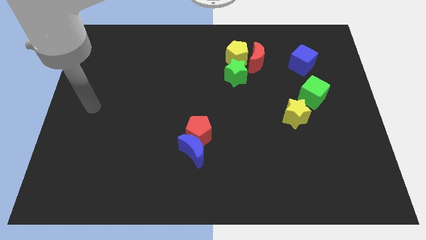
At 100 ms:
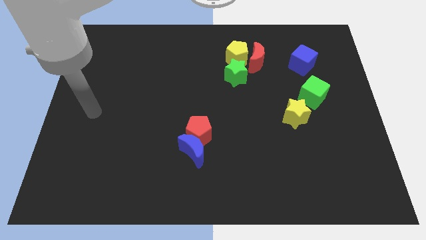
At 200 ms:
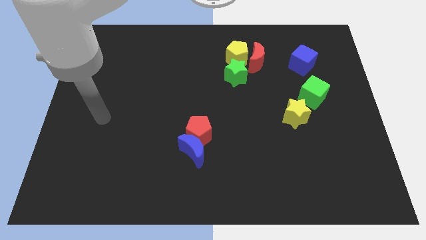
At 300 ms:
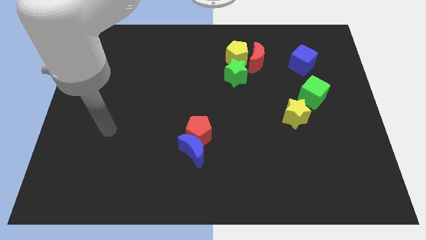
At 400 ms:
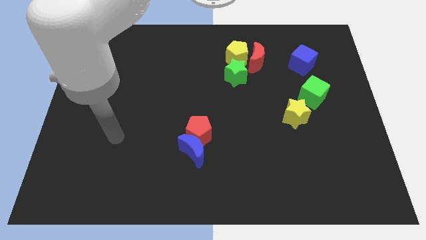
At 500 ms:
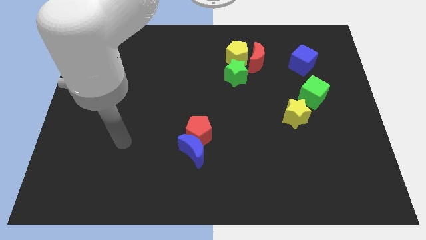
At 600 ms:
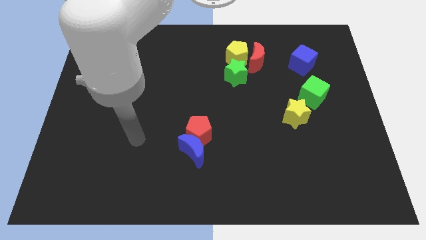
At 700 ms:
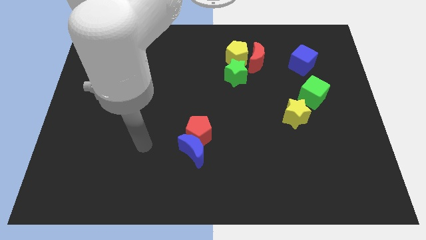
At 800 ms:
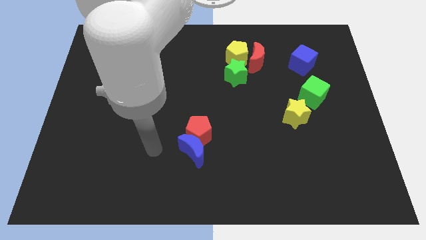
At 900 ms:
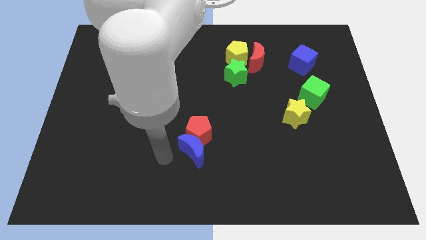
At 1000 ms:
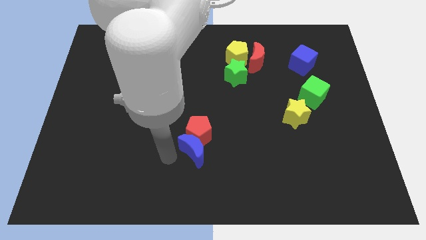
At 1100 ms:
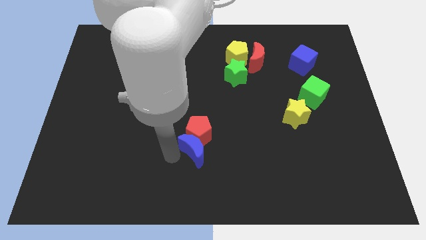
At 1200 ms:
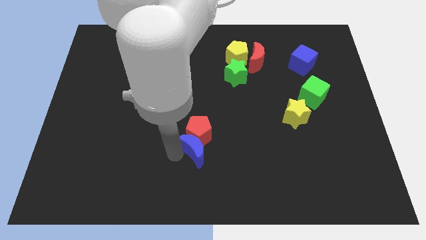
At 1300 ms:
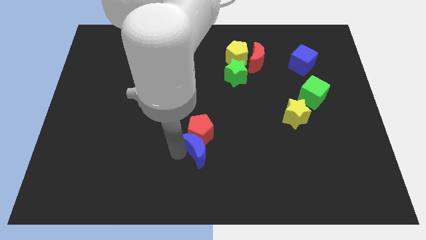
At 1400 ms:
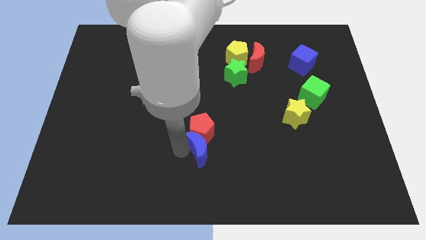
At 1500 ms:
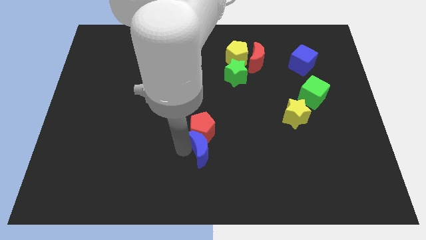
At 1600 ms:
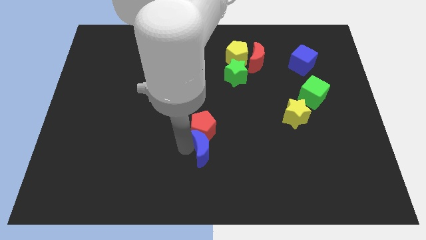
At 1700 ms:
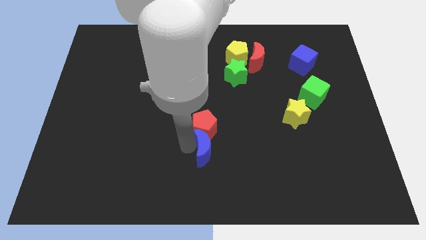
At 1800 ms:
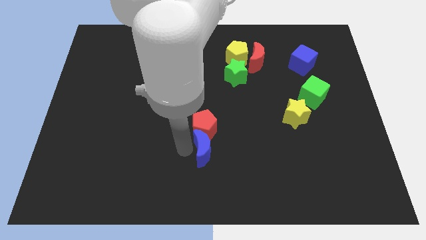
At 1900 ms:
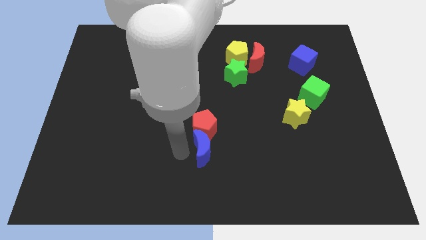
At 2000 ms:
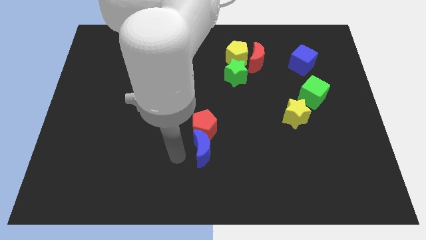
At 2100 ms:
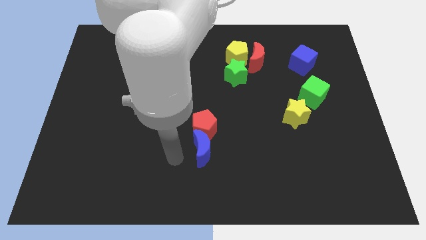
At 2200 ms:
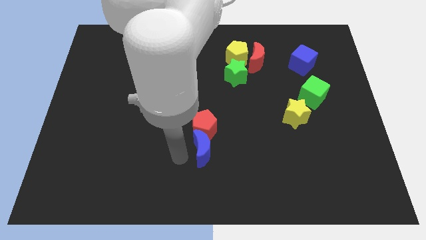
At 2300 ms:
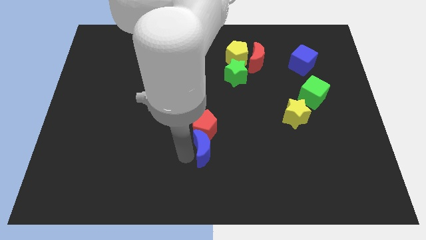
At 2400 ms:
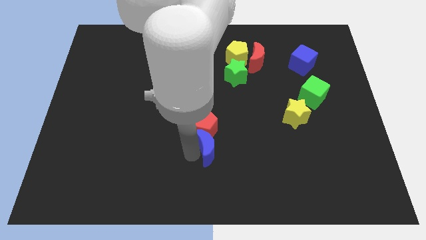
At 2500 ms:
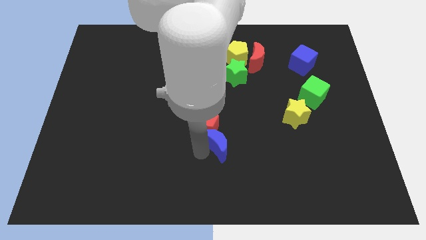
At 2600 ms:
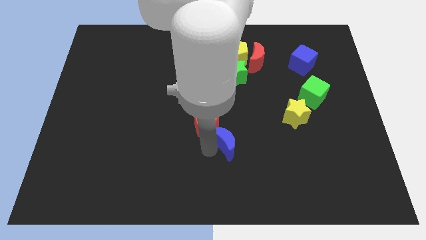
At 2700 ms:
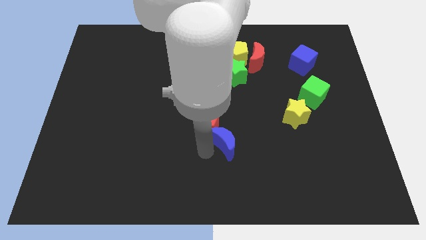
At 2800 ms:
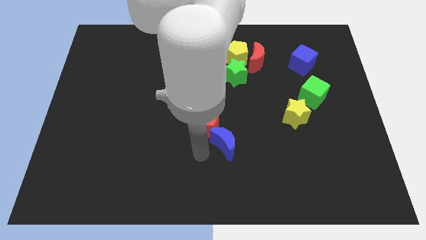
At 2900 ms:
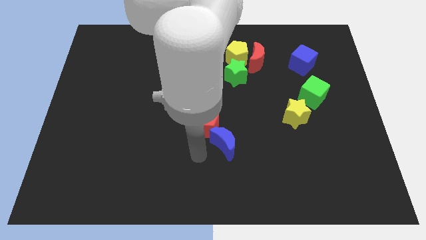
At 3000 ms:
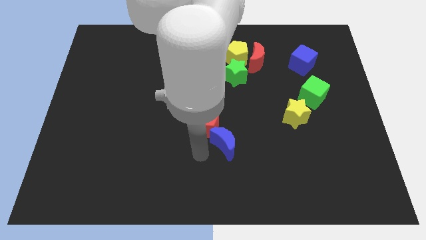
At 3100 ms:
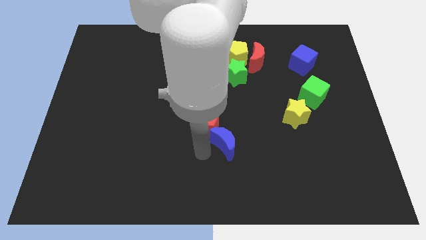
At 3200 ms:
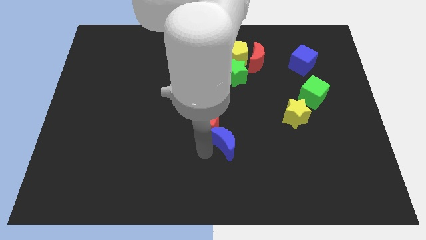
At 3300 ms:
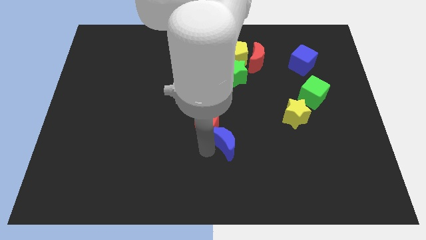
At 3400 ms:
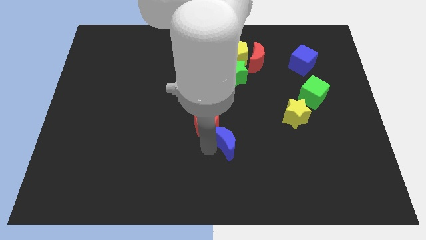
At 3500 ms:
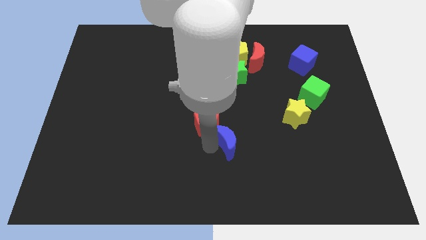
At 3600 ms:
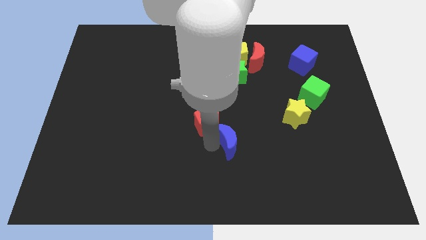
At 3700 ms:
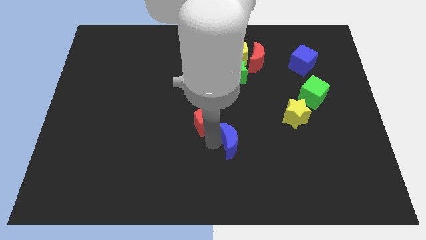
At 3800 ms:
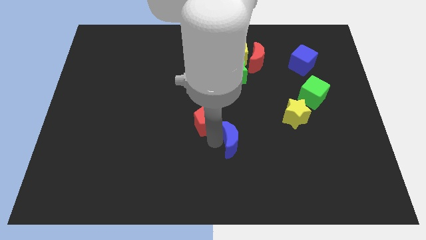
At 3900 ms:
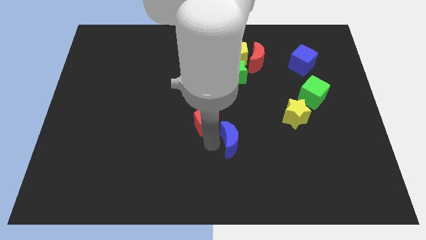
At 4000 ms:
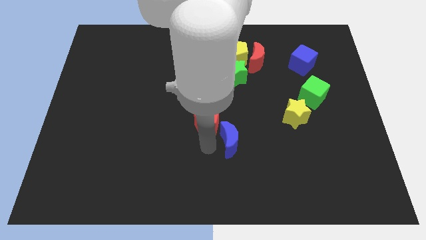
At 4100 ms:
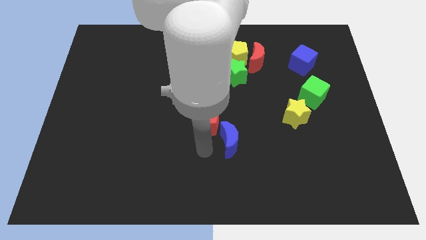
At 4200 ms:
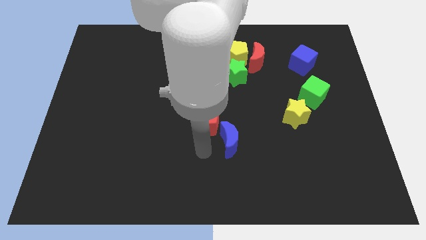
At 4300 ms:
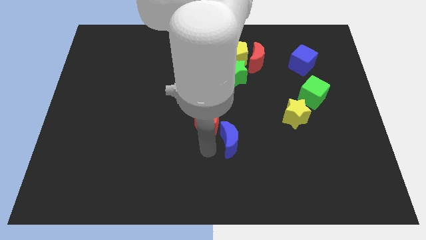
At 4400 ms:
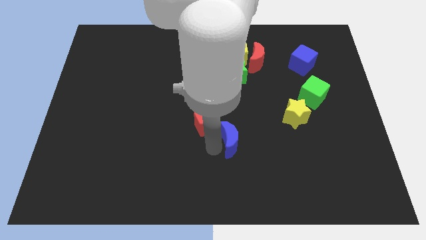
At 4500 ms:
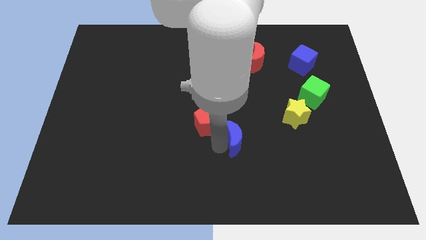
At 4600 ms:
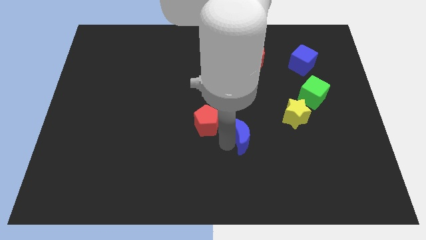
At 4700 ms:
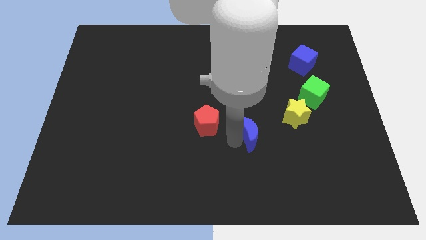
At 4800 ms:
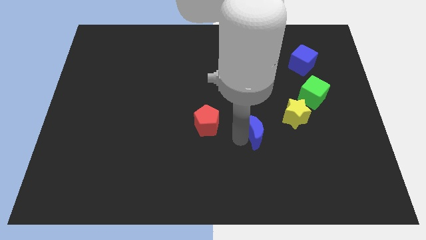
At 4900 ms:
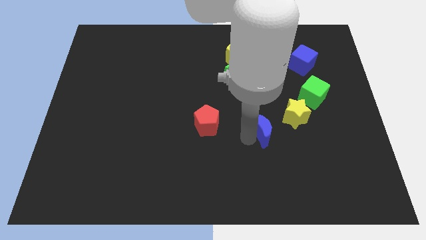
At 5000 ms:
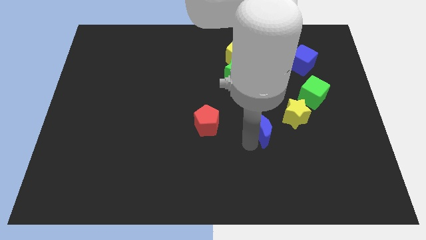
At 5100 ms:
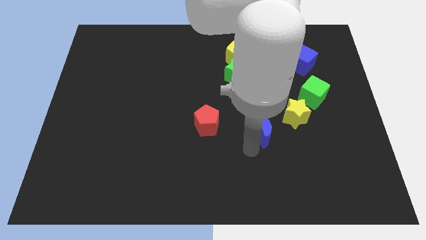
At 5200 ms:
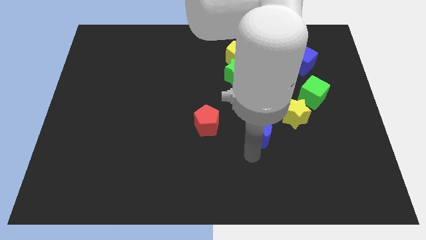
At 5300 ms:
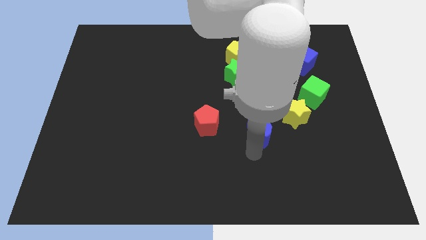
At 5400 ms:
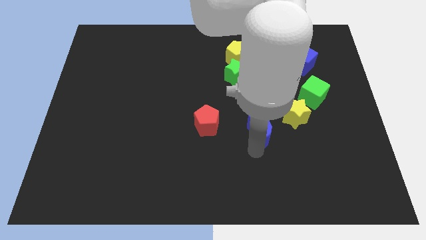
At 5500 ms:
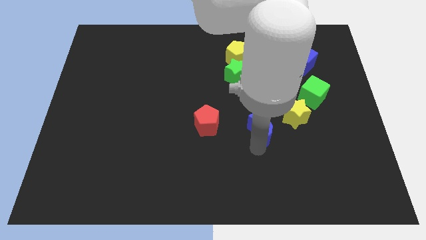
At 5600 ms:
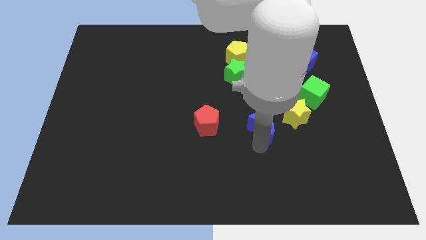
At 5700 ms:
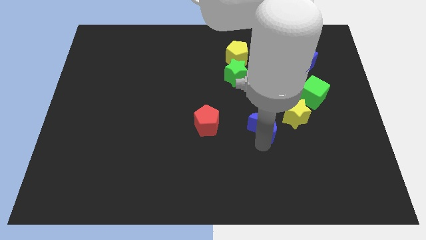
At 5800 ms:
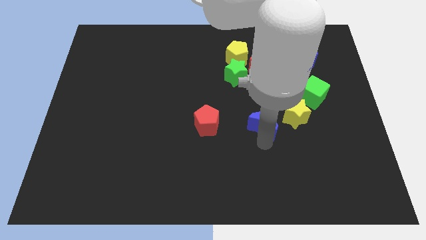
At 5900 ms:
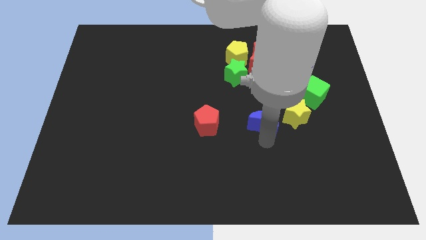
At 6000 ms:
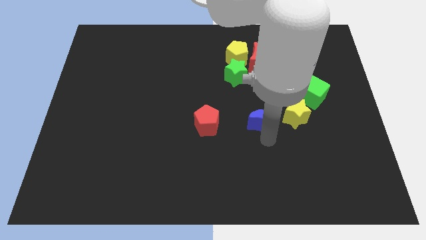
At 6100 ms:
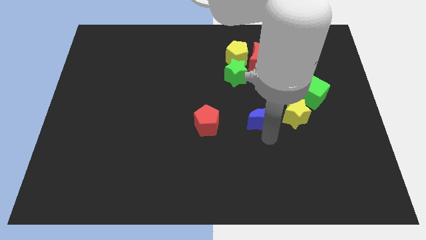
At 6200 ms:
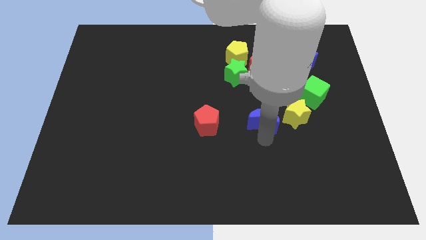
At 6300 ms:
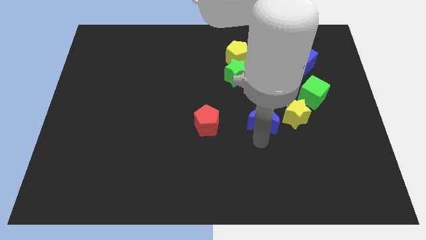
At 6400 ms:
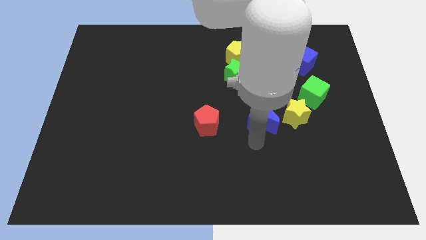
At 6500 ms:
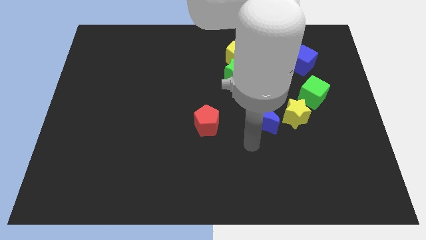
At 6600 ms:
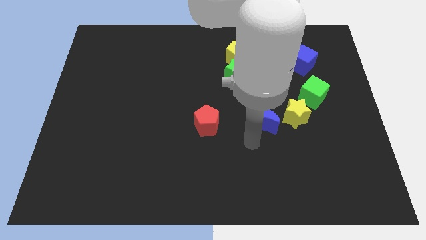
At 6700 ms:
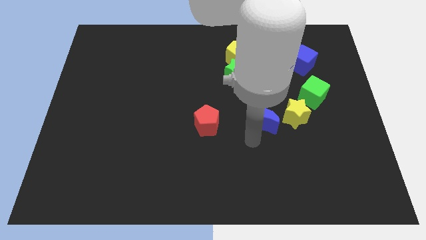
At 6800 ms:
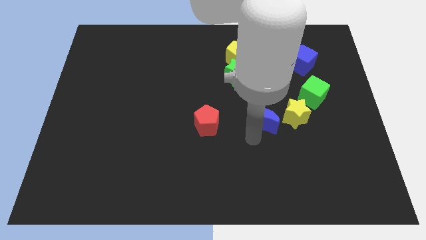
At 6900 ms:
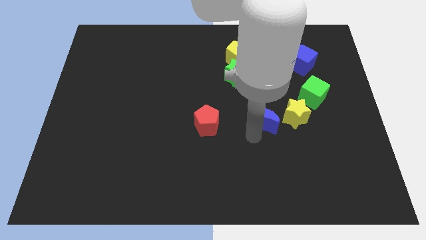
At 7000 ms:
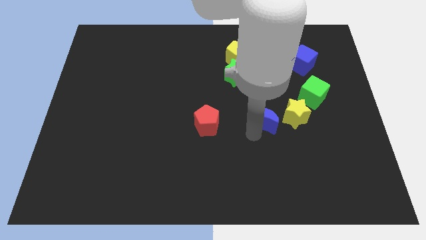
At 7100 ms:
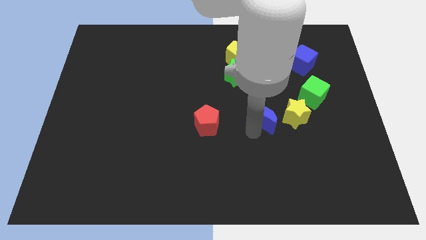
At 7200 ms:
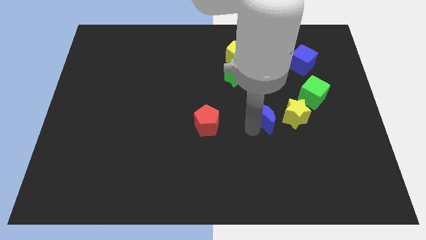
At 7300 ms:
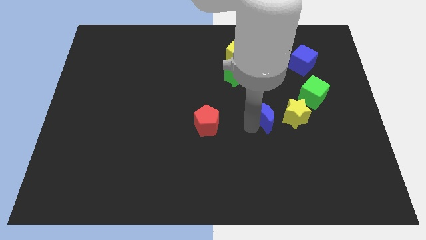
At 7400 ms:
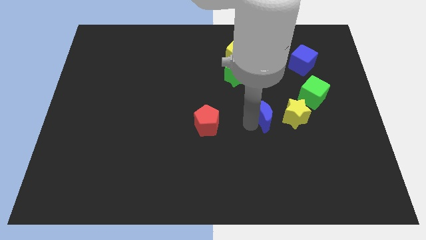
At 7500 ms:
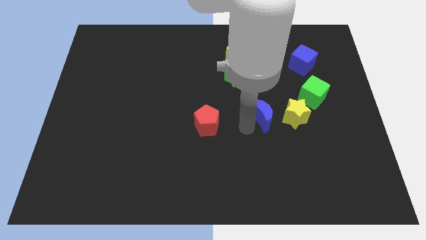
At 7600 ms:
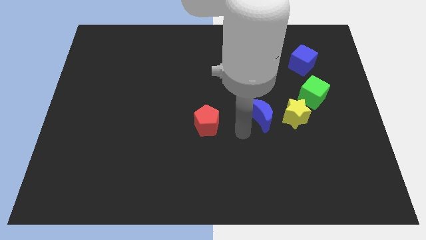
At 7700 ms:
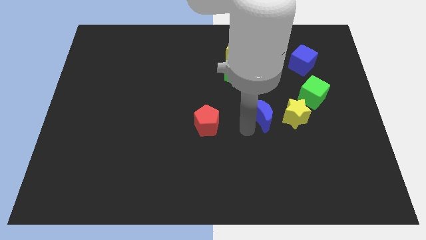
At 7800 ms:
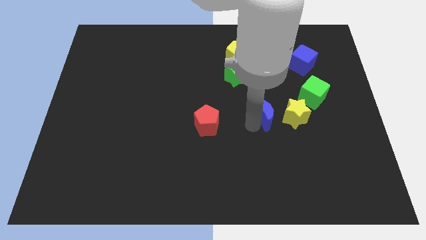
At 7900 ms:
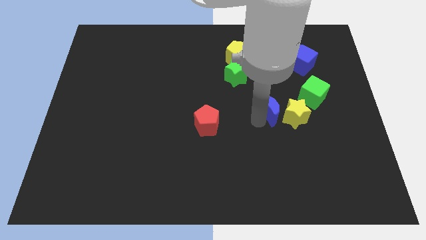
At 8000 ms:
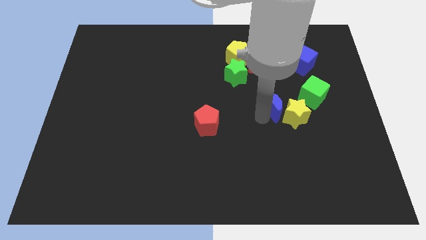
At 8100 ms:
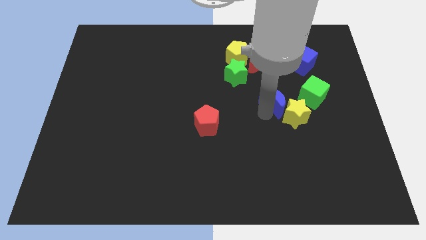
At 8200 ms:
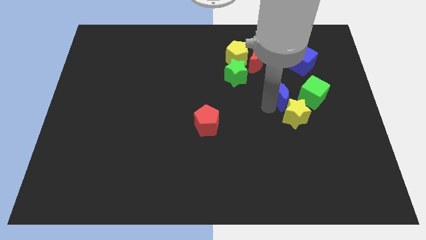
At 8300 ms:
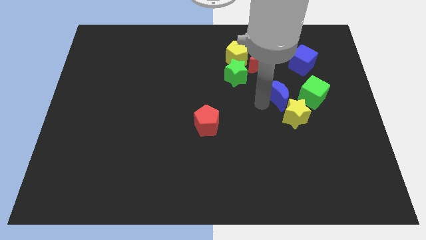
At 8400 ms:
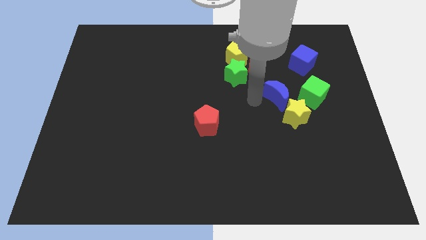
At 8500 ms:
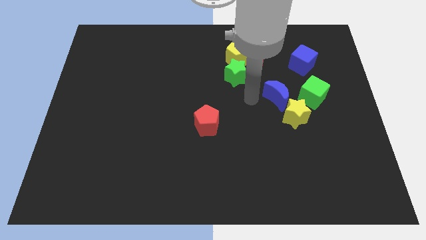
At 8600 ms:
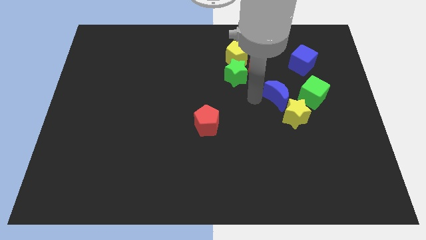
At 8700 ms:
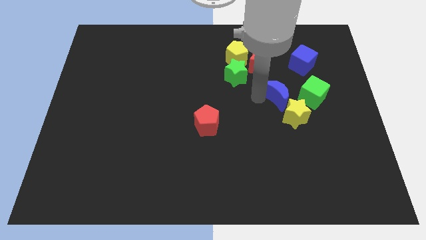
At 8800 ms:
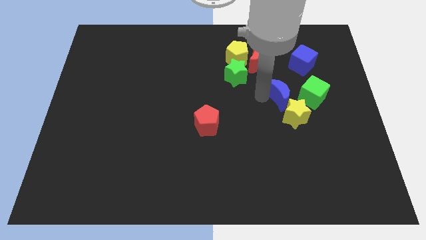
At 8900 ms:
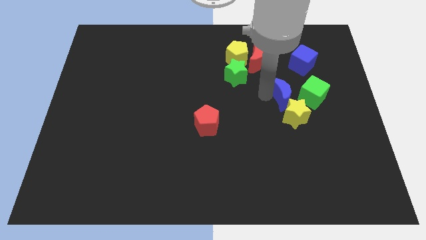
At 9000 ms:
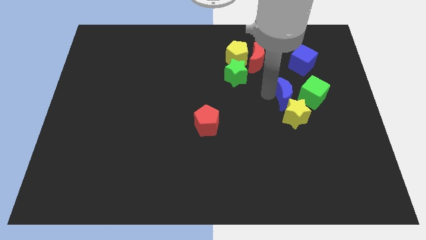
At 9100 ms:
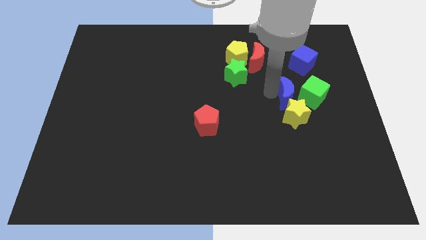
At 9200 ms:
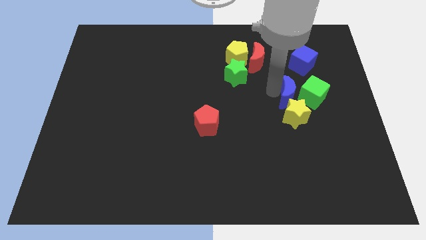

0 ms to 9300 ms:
slide the blue moon towards the green cube
